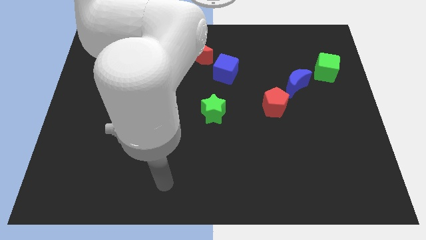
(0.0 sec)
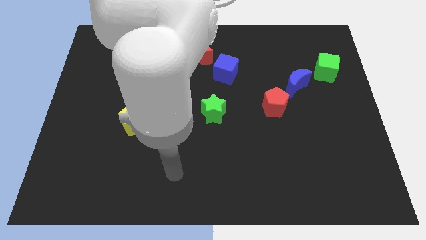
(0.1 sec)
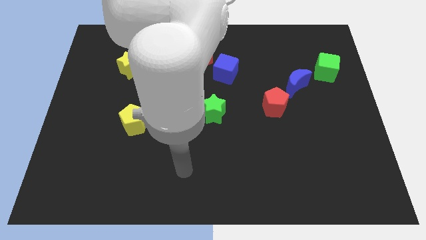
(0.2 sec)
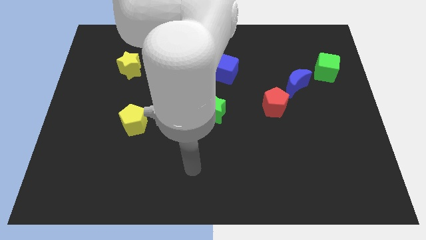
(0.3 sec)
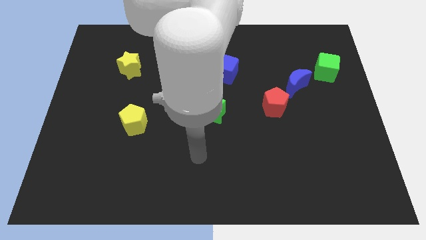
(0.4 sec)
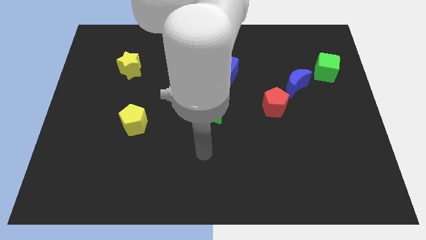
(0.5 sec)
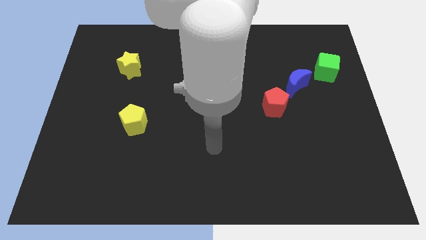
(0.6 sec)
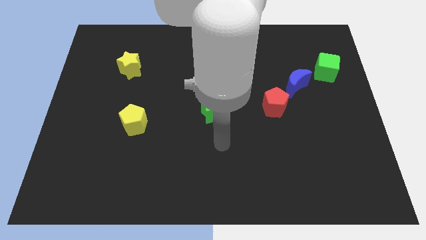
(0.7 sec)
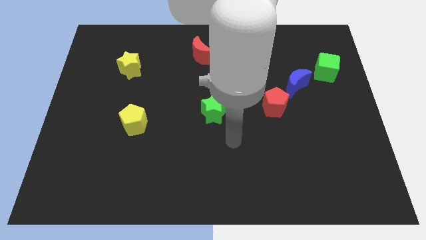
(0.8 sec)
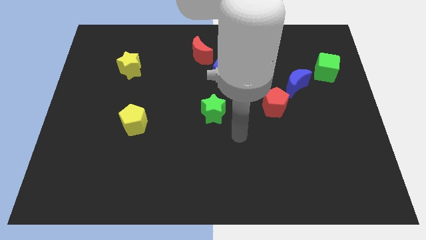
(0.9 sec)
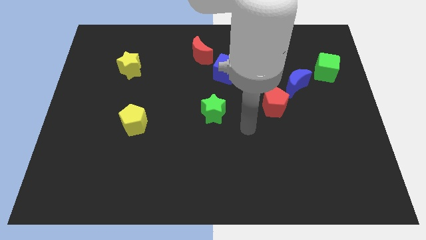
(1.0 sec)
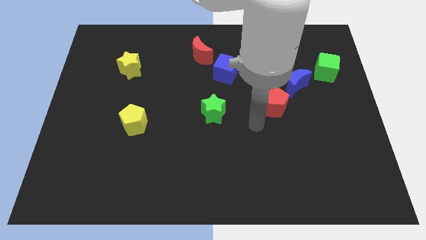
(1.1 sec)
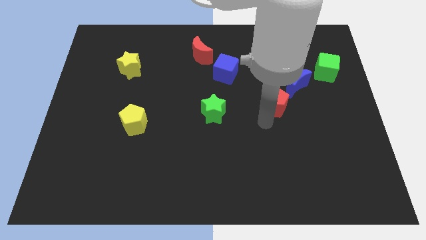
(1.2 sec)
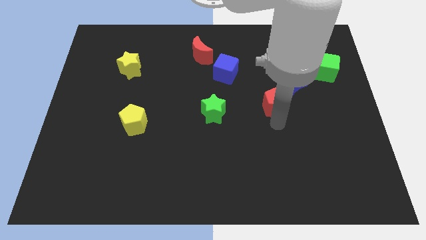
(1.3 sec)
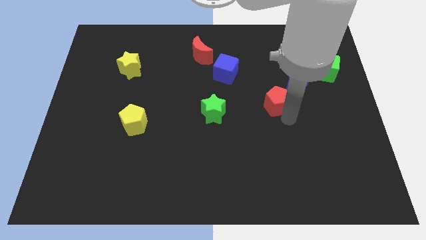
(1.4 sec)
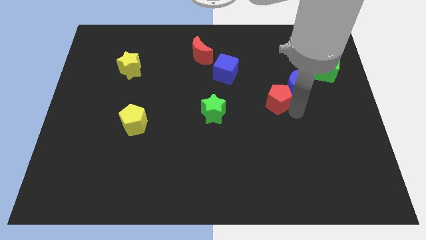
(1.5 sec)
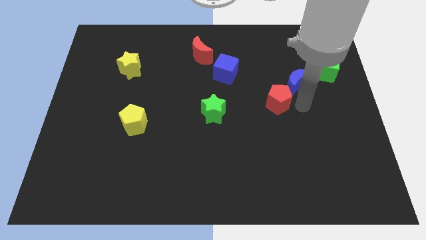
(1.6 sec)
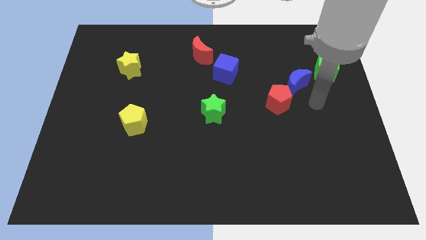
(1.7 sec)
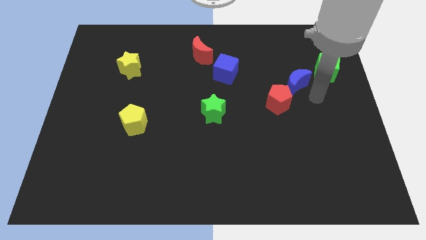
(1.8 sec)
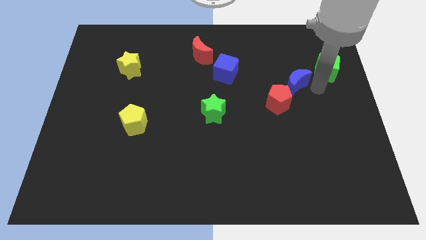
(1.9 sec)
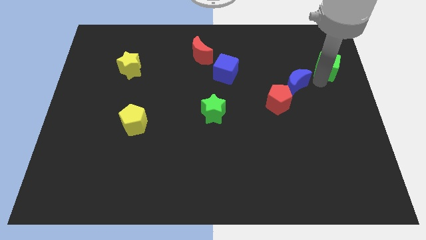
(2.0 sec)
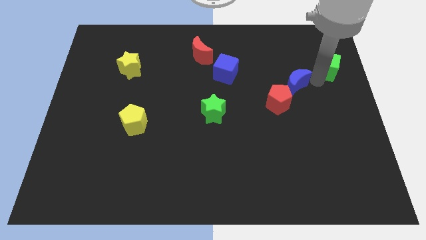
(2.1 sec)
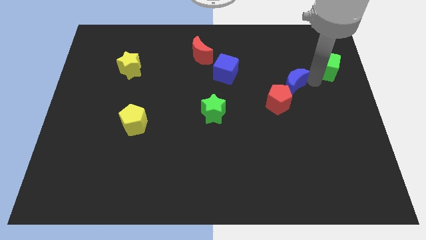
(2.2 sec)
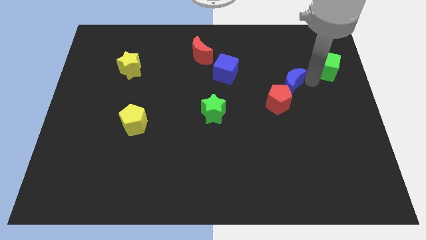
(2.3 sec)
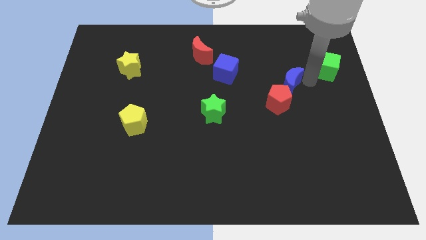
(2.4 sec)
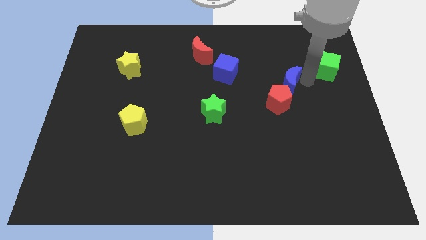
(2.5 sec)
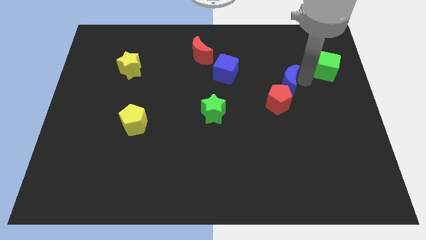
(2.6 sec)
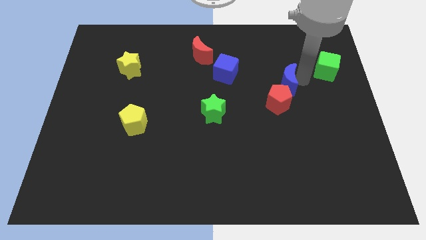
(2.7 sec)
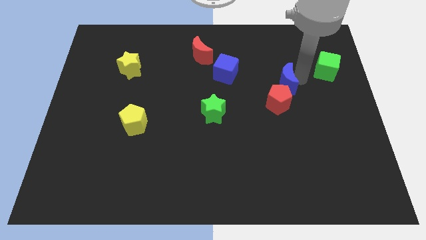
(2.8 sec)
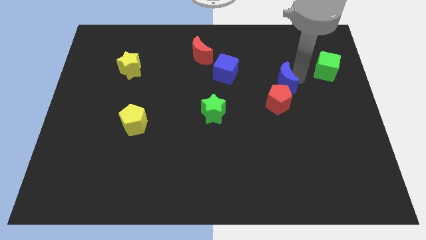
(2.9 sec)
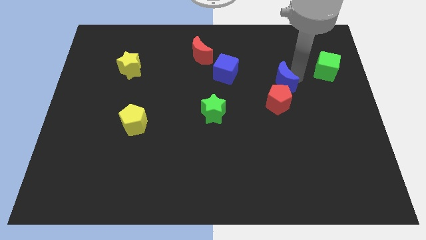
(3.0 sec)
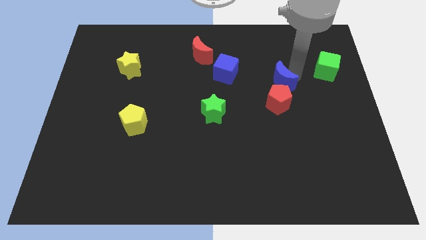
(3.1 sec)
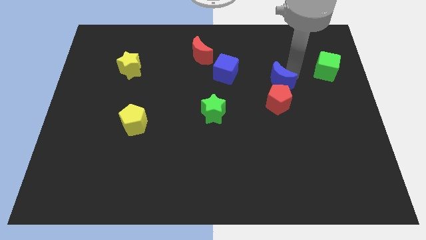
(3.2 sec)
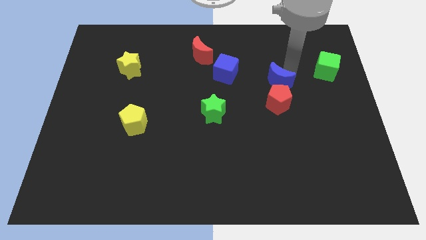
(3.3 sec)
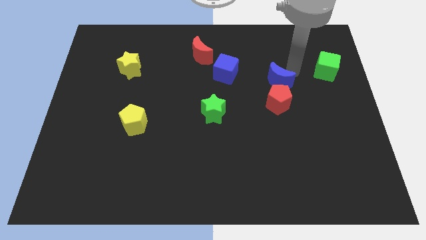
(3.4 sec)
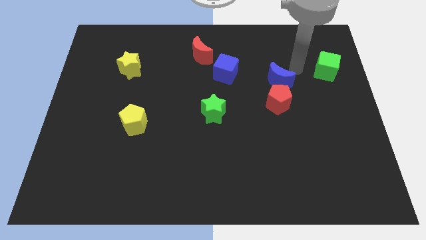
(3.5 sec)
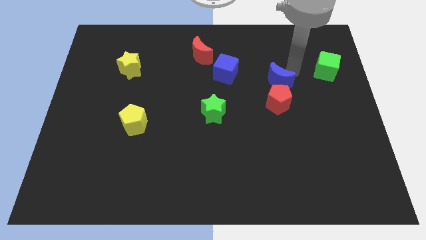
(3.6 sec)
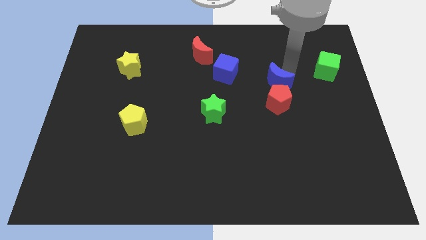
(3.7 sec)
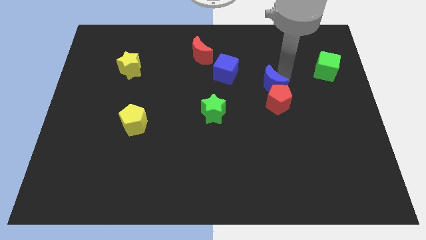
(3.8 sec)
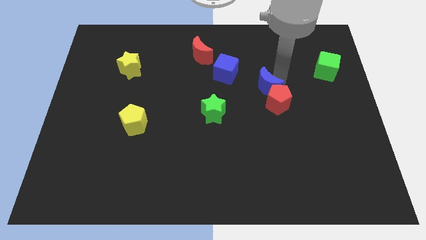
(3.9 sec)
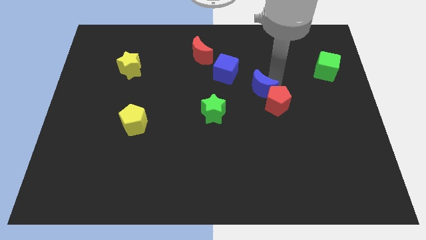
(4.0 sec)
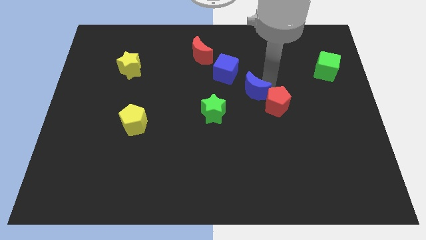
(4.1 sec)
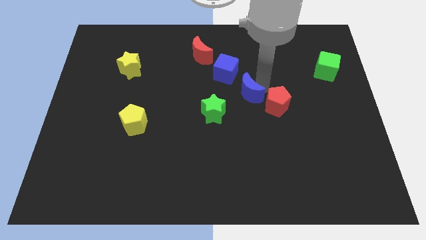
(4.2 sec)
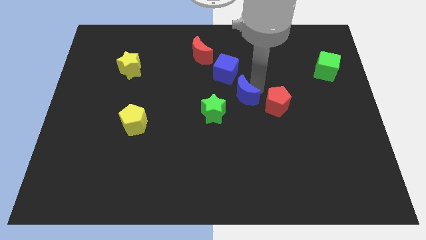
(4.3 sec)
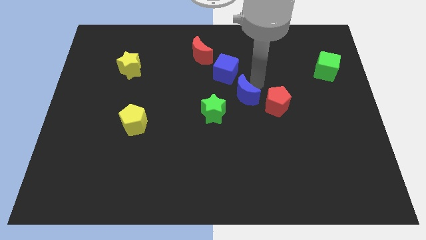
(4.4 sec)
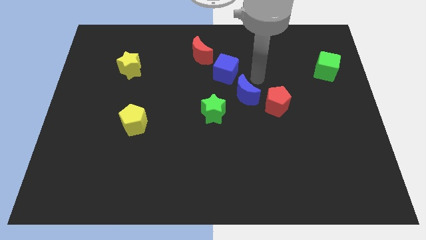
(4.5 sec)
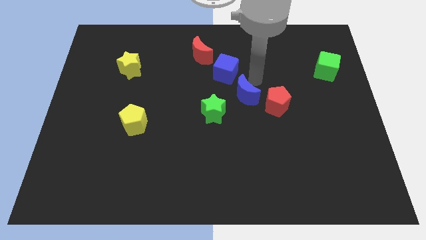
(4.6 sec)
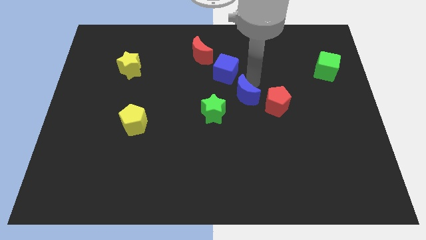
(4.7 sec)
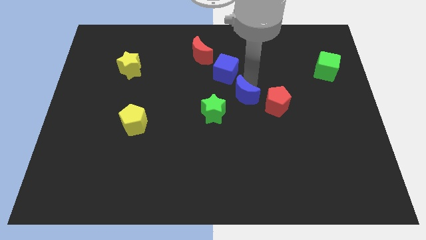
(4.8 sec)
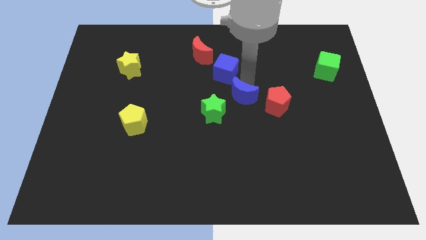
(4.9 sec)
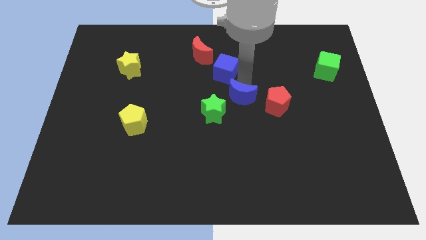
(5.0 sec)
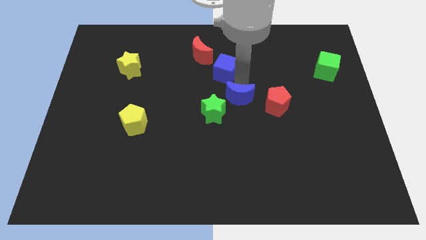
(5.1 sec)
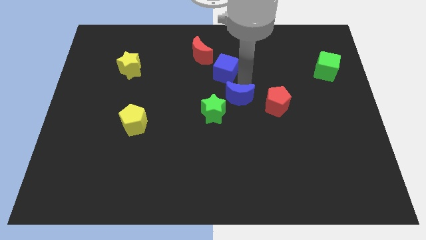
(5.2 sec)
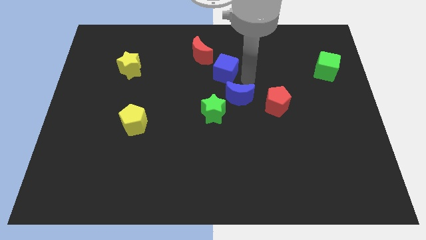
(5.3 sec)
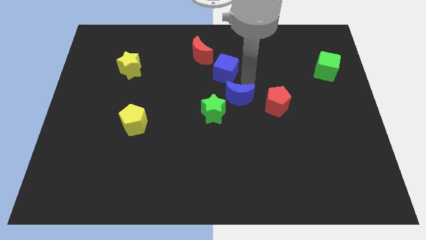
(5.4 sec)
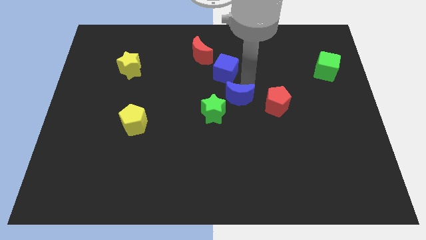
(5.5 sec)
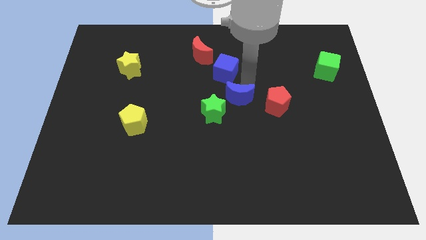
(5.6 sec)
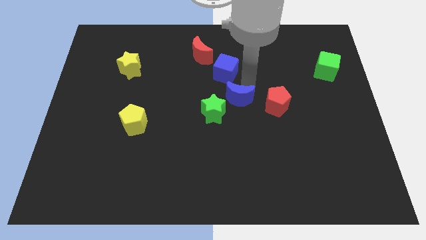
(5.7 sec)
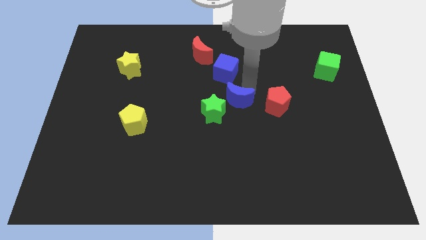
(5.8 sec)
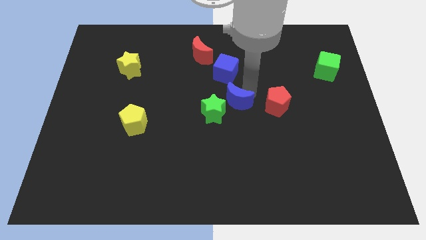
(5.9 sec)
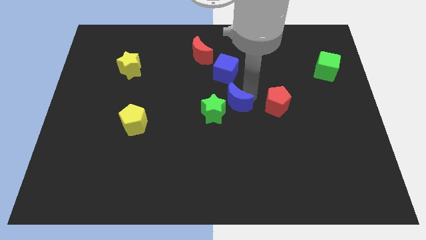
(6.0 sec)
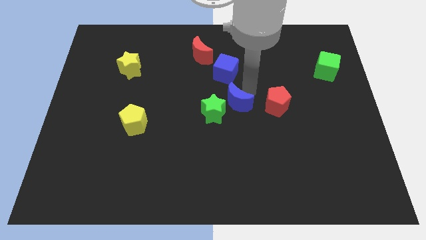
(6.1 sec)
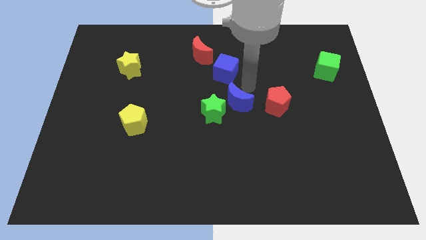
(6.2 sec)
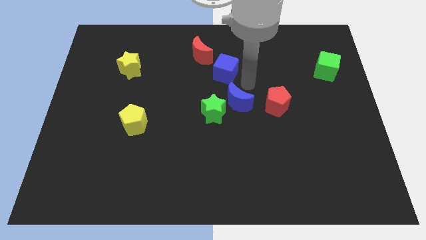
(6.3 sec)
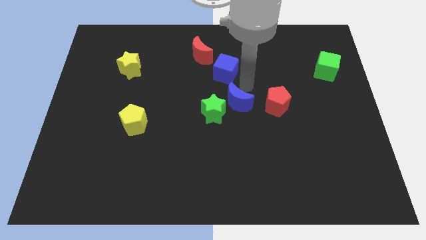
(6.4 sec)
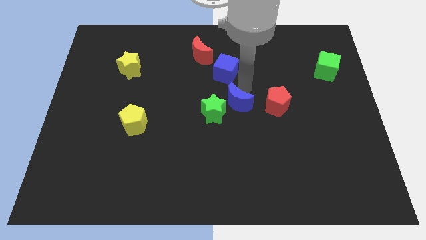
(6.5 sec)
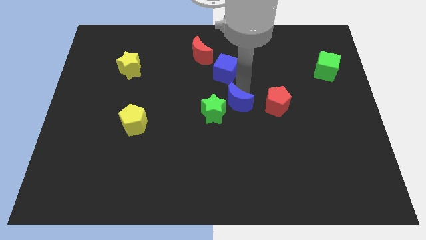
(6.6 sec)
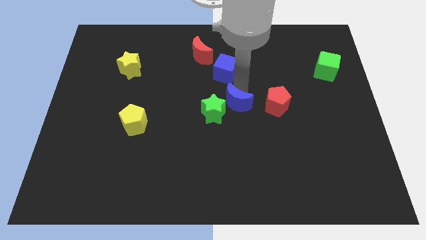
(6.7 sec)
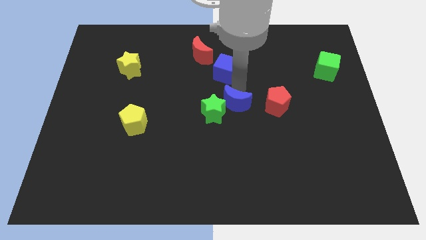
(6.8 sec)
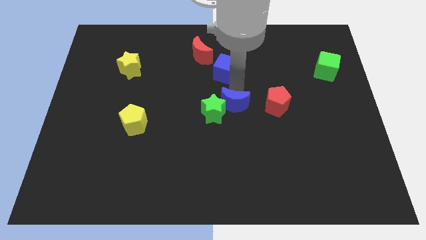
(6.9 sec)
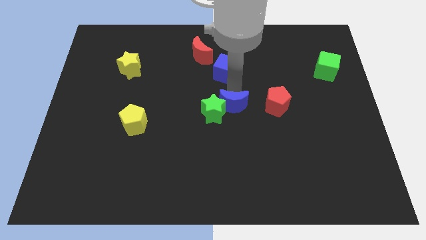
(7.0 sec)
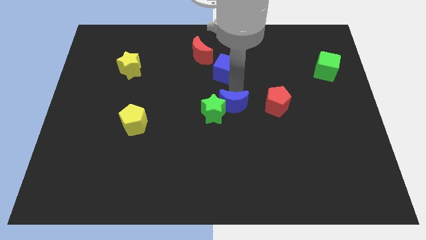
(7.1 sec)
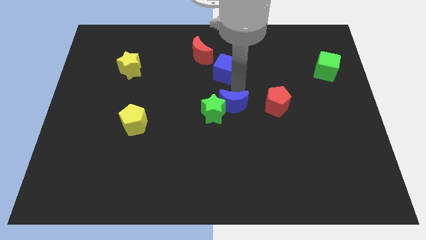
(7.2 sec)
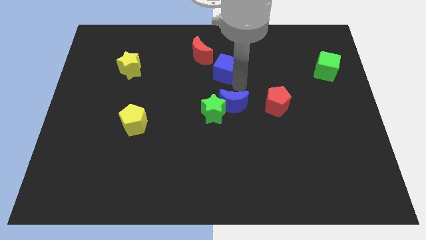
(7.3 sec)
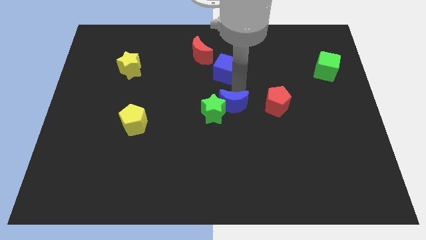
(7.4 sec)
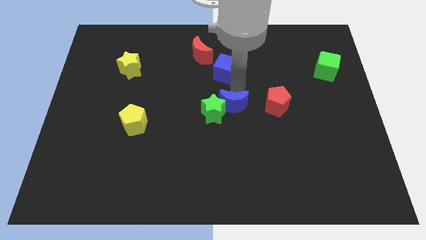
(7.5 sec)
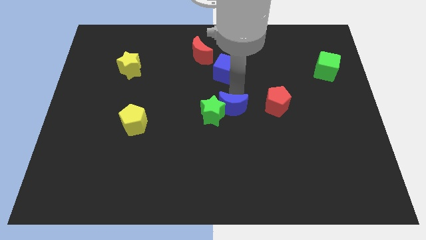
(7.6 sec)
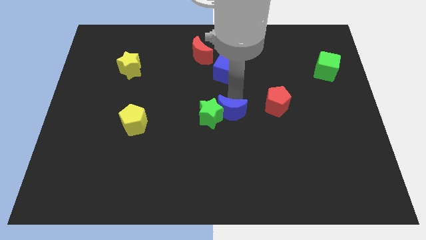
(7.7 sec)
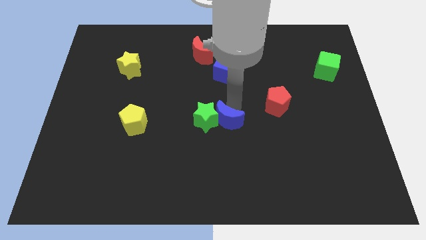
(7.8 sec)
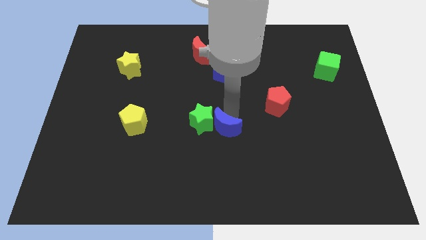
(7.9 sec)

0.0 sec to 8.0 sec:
move the blue moon down and left

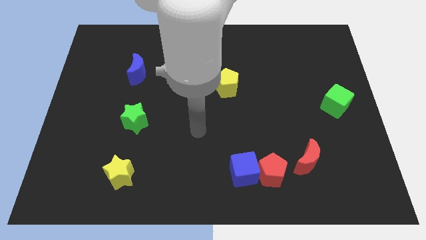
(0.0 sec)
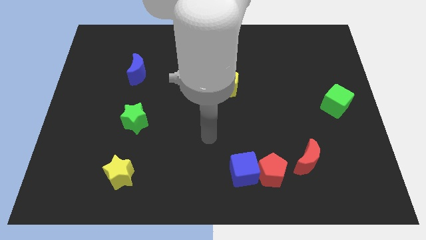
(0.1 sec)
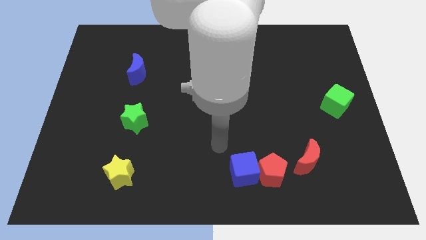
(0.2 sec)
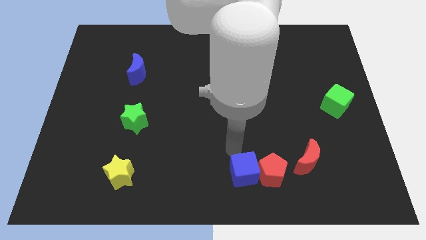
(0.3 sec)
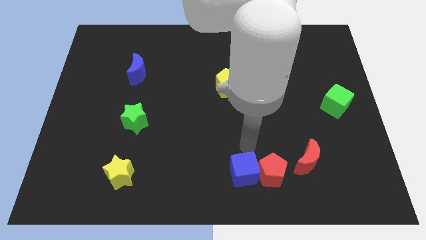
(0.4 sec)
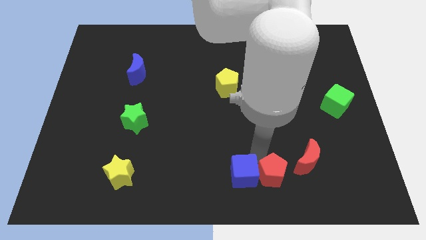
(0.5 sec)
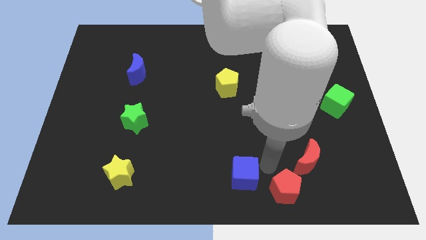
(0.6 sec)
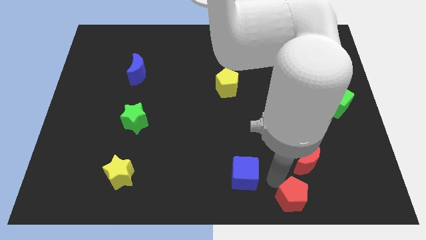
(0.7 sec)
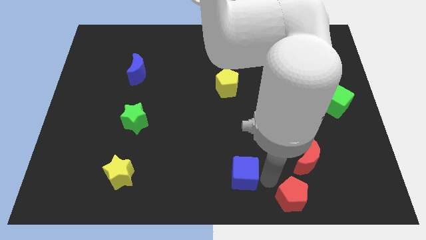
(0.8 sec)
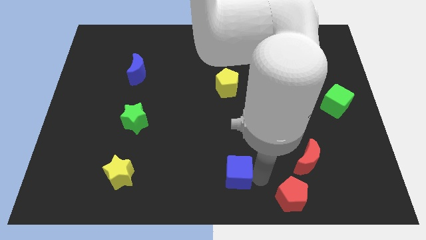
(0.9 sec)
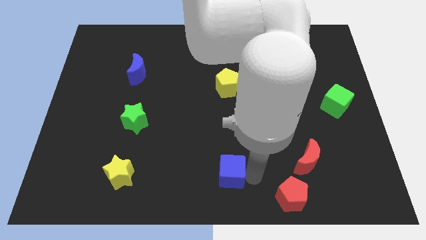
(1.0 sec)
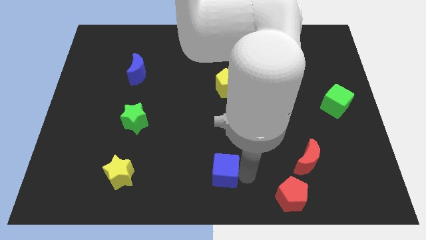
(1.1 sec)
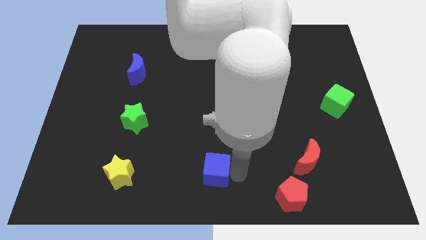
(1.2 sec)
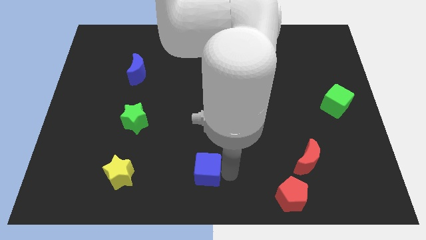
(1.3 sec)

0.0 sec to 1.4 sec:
slightly push the blue cube to the left
